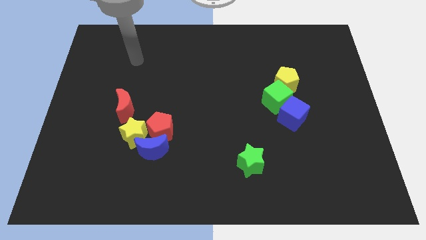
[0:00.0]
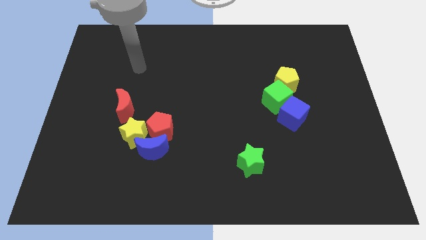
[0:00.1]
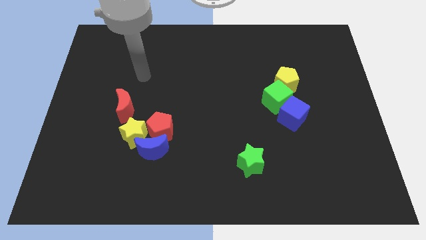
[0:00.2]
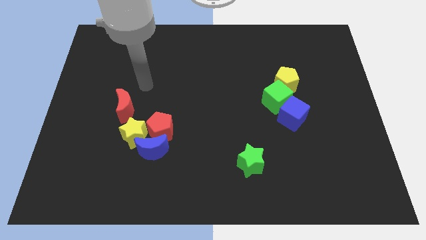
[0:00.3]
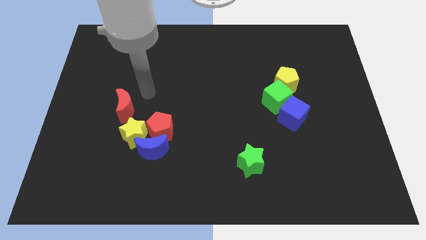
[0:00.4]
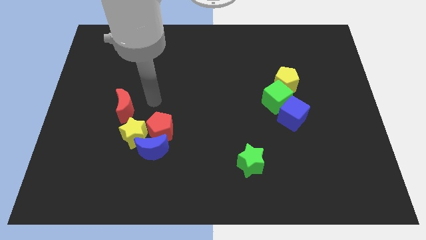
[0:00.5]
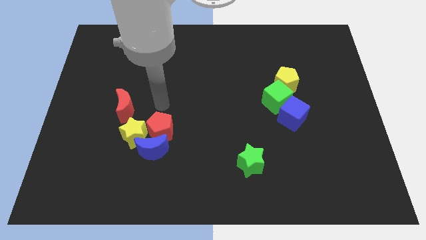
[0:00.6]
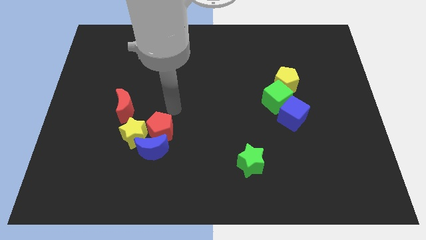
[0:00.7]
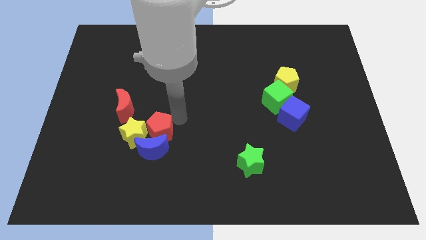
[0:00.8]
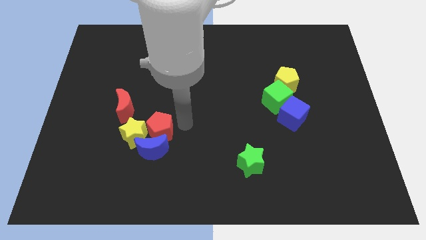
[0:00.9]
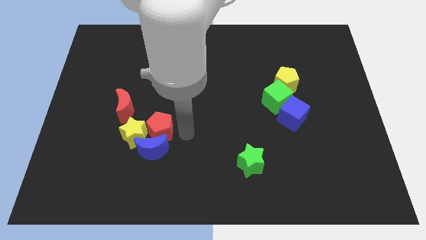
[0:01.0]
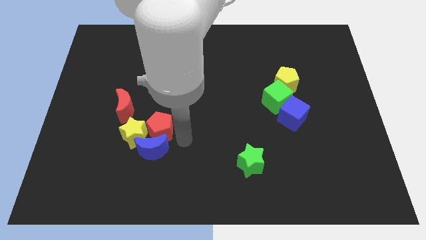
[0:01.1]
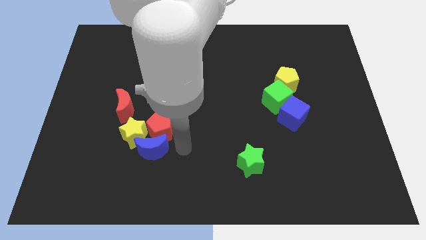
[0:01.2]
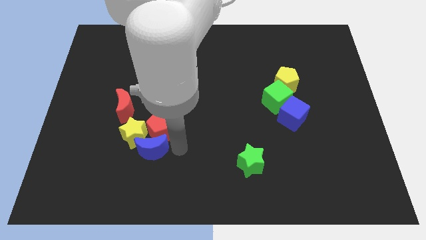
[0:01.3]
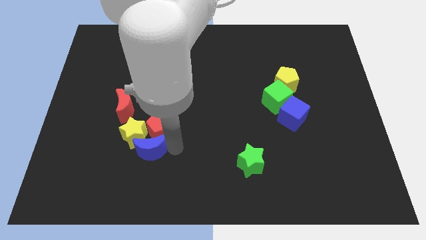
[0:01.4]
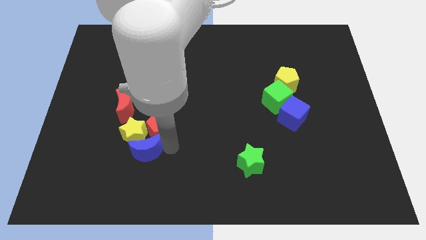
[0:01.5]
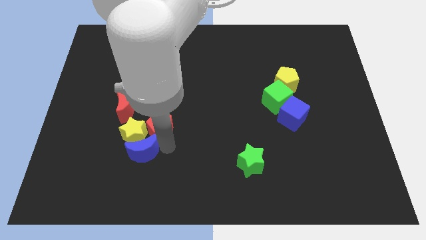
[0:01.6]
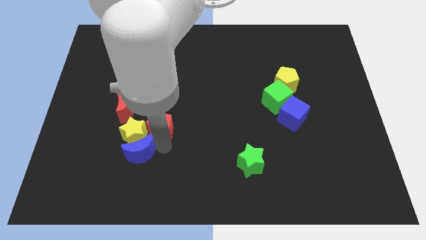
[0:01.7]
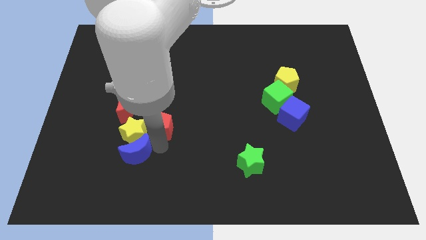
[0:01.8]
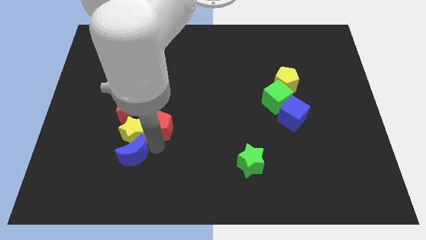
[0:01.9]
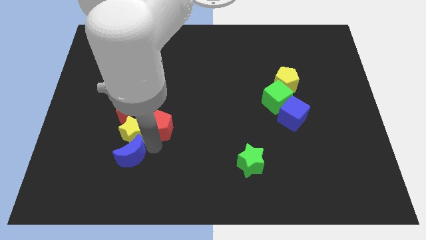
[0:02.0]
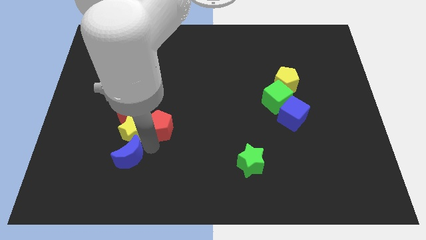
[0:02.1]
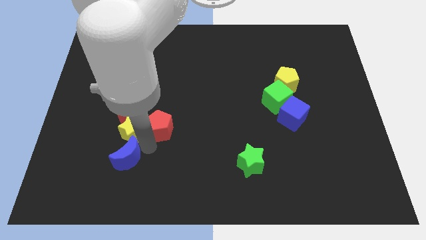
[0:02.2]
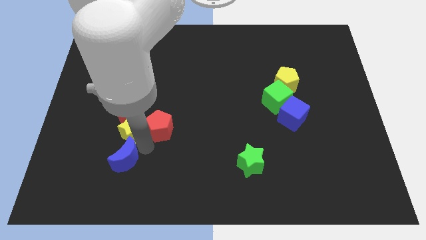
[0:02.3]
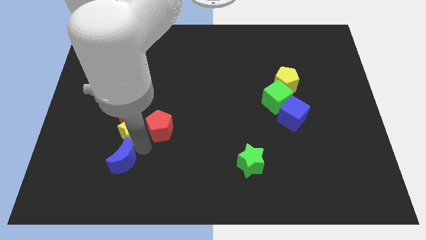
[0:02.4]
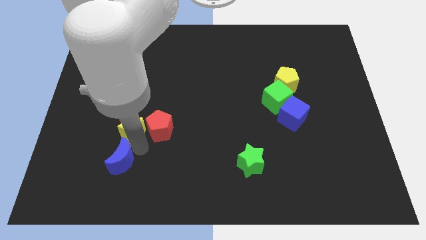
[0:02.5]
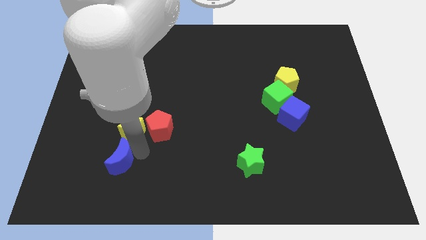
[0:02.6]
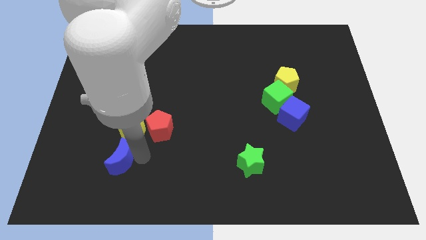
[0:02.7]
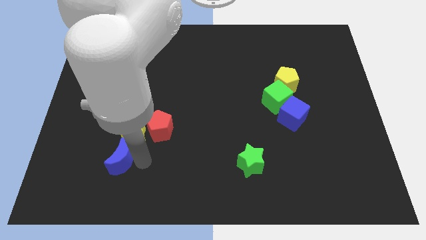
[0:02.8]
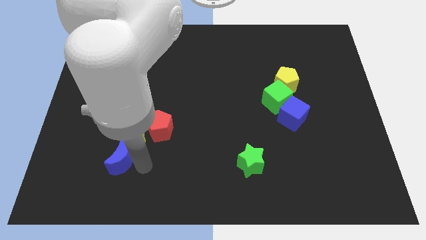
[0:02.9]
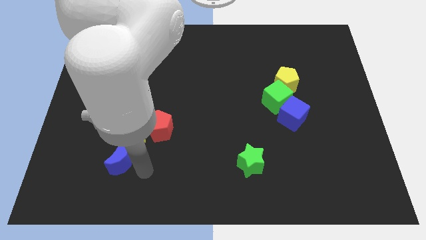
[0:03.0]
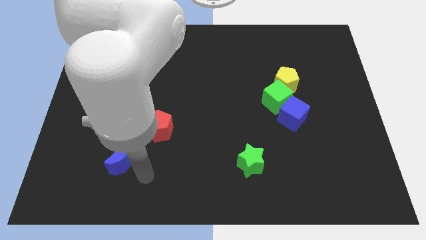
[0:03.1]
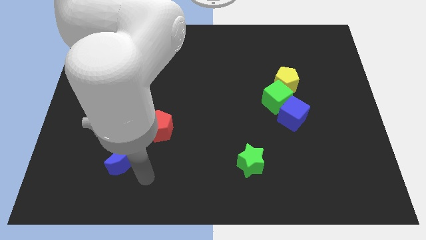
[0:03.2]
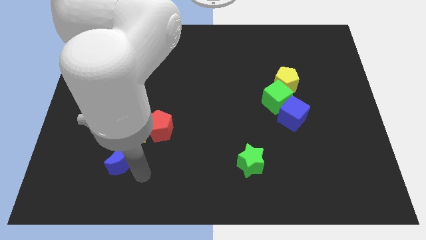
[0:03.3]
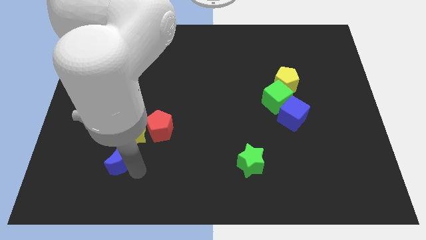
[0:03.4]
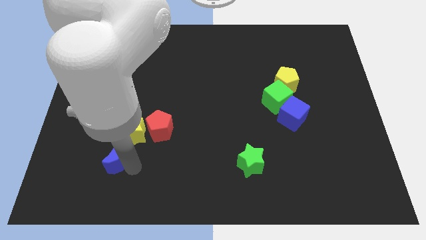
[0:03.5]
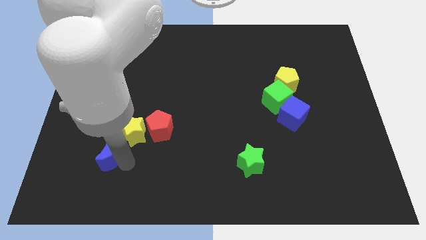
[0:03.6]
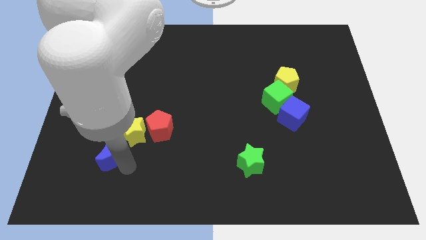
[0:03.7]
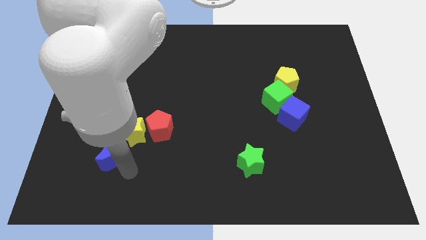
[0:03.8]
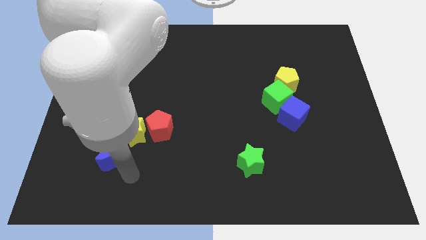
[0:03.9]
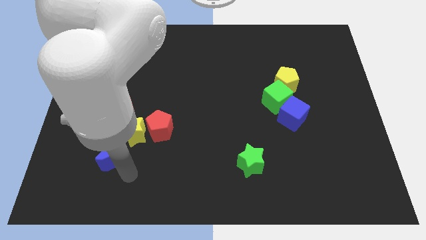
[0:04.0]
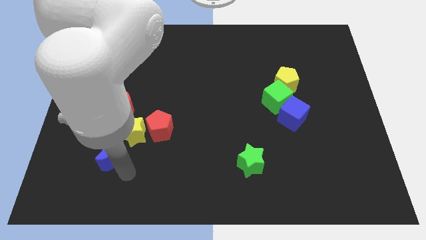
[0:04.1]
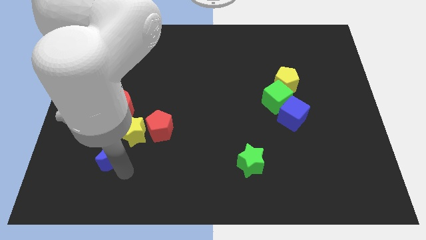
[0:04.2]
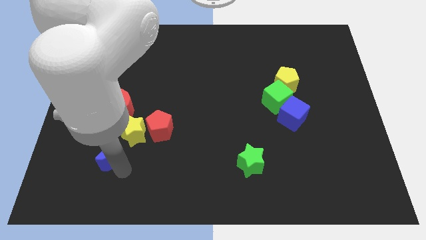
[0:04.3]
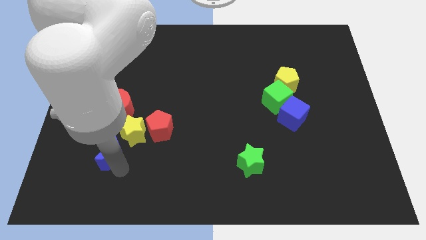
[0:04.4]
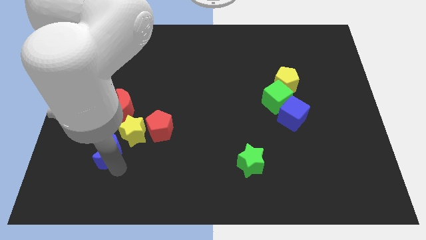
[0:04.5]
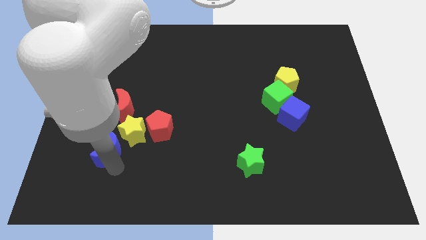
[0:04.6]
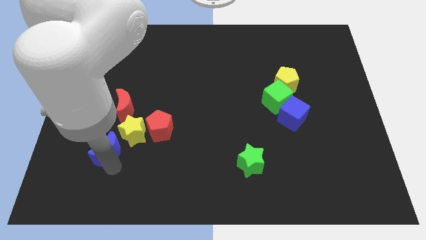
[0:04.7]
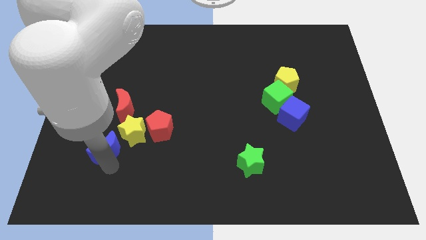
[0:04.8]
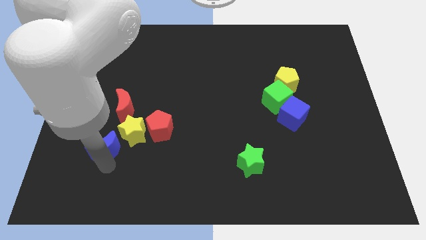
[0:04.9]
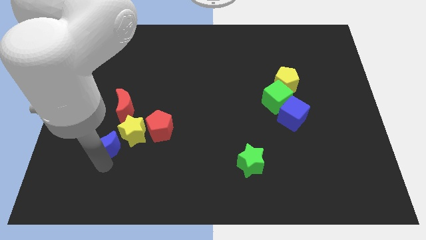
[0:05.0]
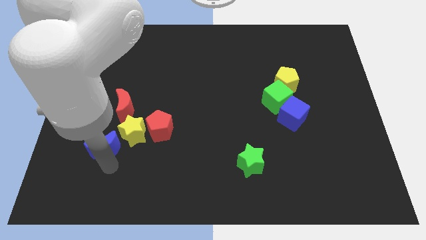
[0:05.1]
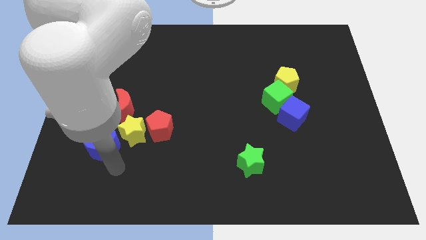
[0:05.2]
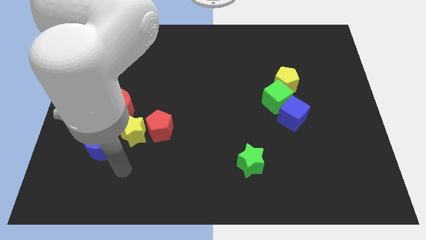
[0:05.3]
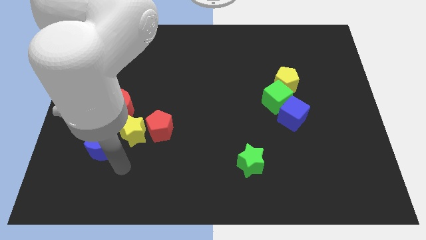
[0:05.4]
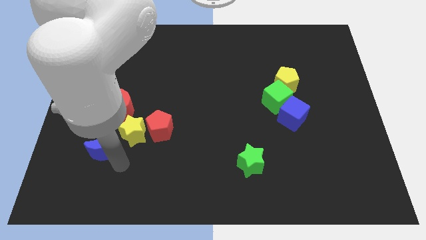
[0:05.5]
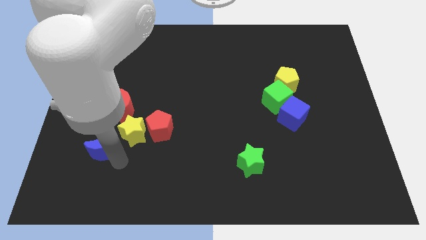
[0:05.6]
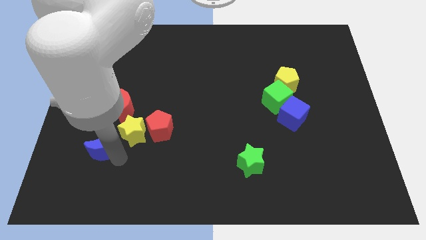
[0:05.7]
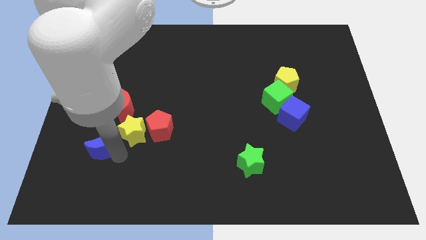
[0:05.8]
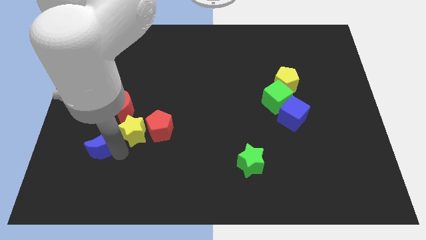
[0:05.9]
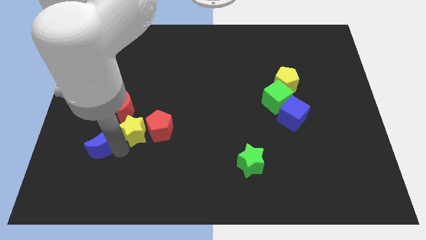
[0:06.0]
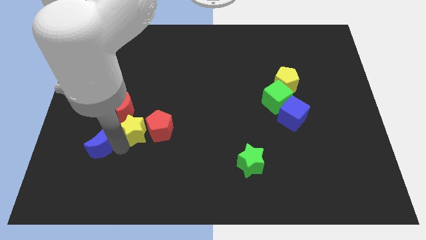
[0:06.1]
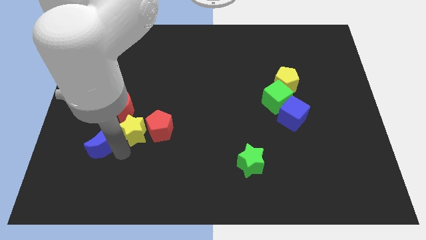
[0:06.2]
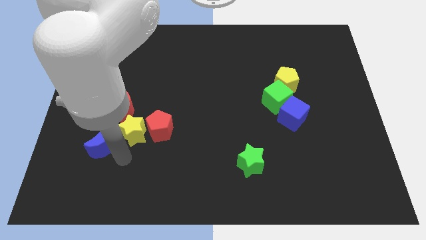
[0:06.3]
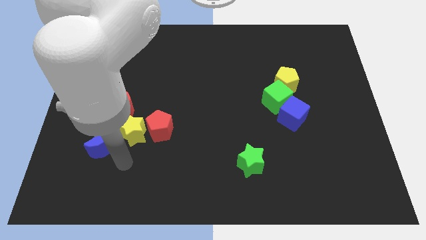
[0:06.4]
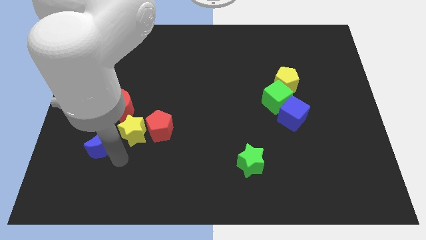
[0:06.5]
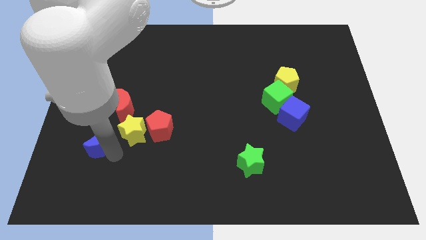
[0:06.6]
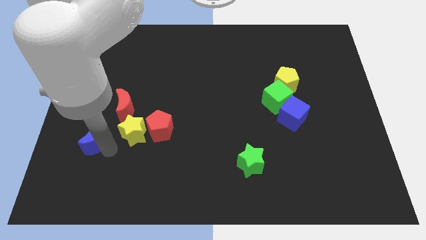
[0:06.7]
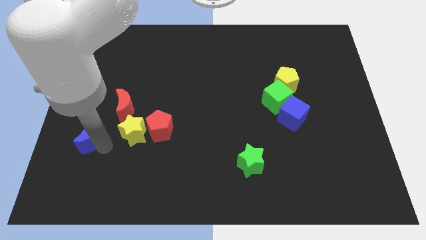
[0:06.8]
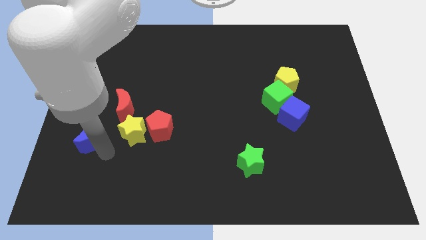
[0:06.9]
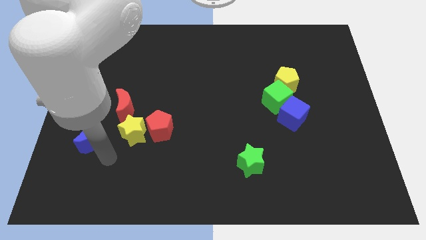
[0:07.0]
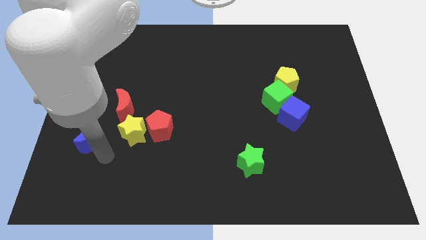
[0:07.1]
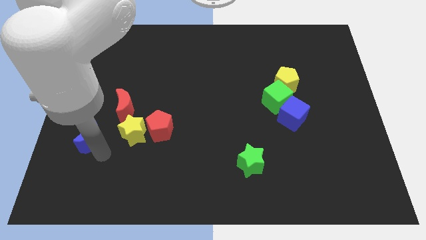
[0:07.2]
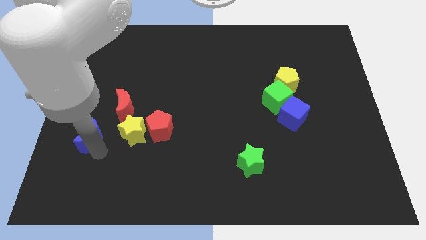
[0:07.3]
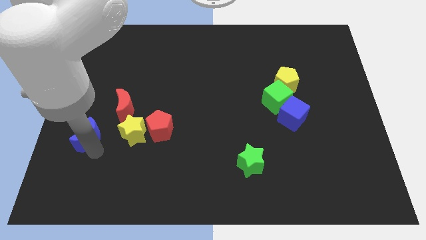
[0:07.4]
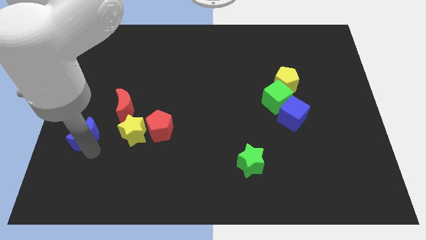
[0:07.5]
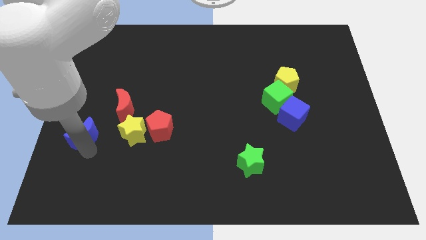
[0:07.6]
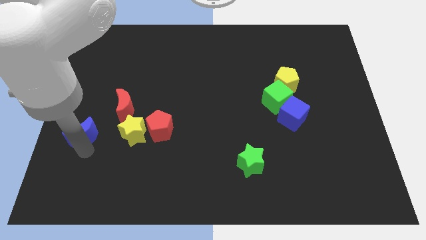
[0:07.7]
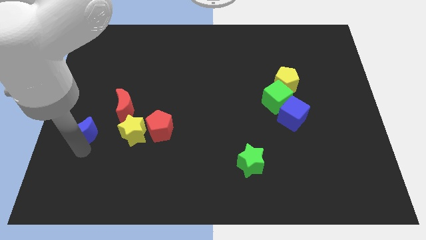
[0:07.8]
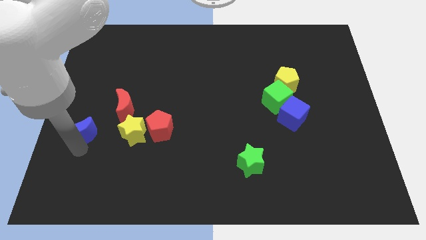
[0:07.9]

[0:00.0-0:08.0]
push the blue moon to the center left
